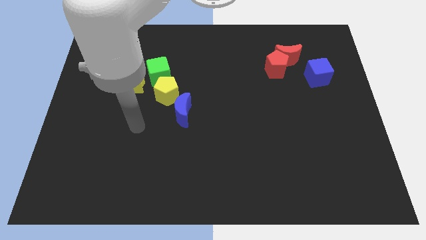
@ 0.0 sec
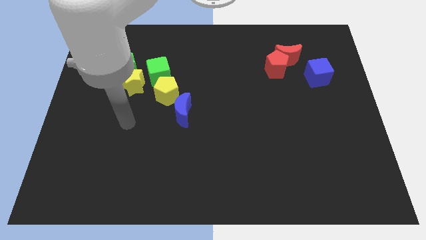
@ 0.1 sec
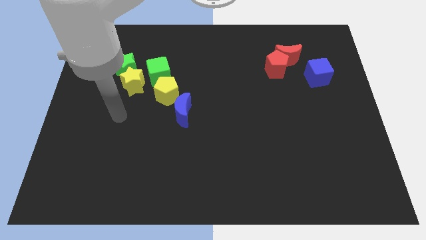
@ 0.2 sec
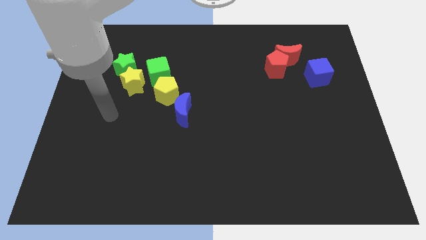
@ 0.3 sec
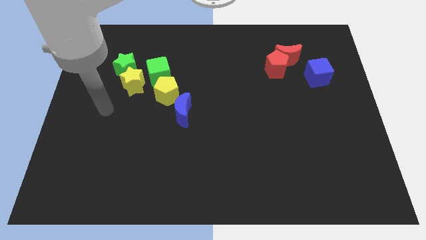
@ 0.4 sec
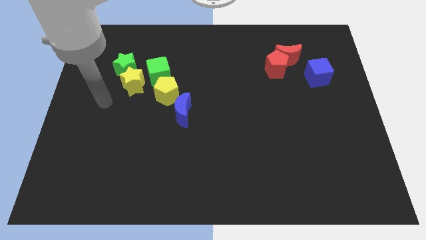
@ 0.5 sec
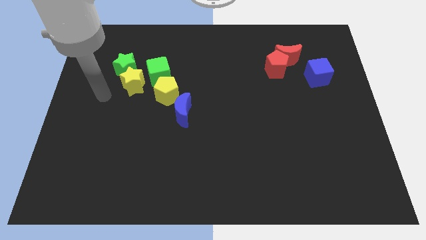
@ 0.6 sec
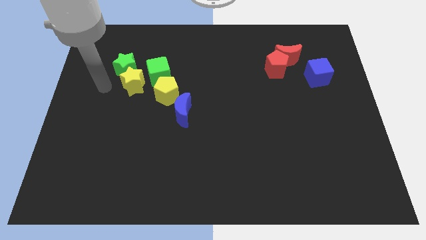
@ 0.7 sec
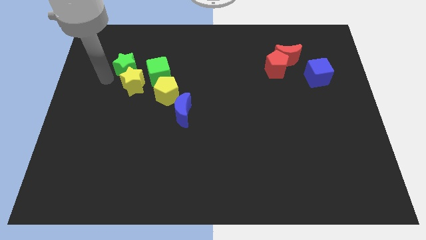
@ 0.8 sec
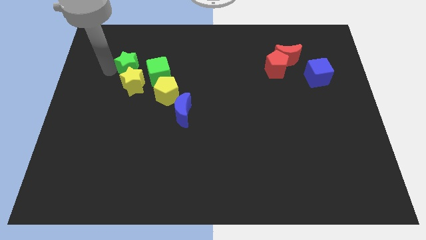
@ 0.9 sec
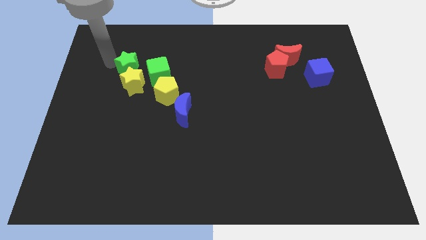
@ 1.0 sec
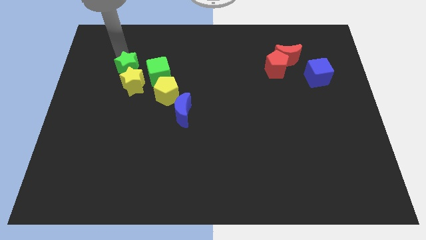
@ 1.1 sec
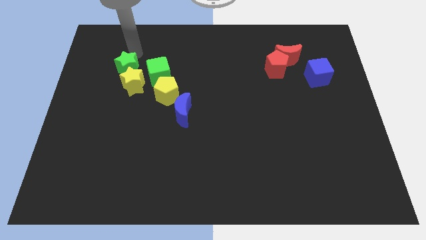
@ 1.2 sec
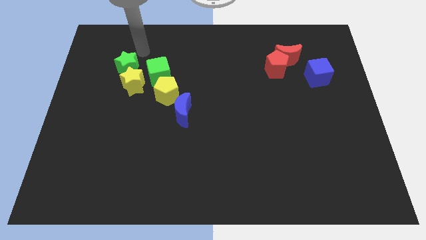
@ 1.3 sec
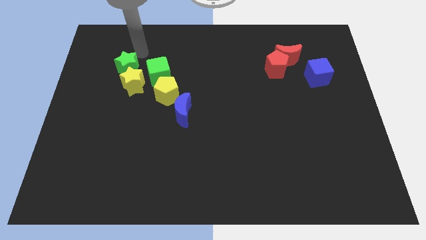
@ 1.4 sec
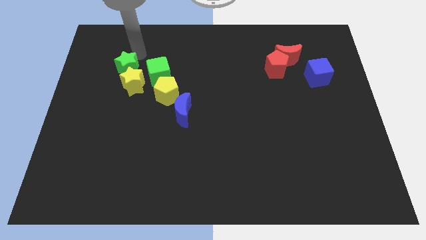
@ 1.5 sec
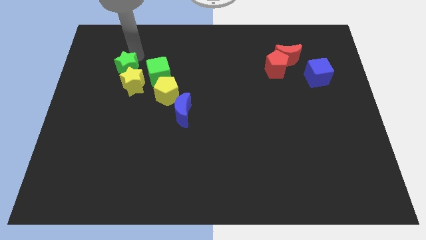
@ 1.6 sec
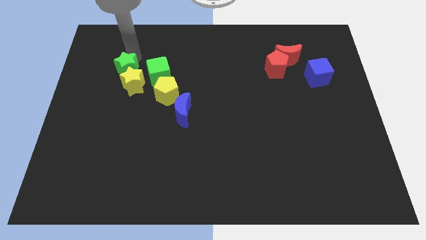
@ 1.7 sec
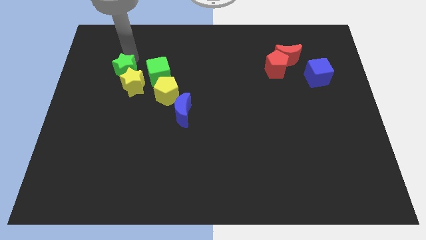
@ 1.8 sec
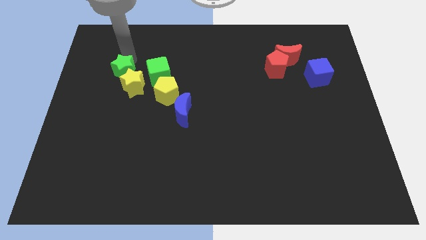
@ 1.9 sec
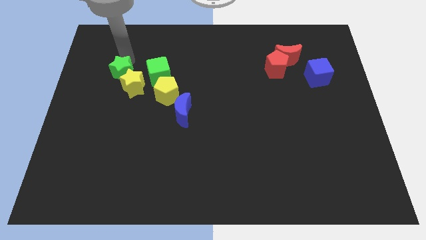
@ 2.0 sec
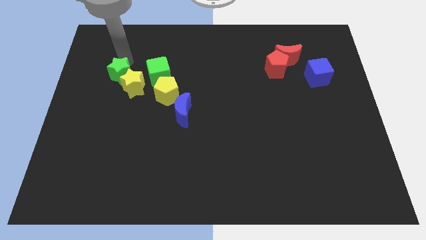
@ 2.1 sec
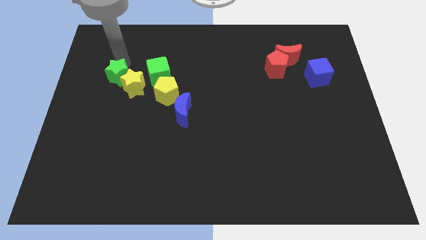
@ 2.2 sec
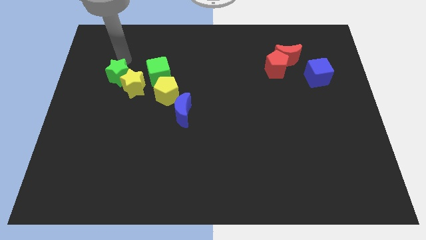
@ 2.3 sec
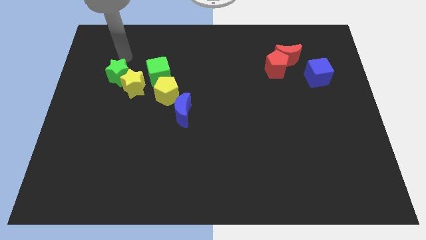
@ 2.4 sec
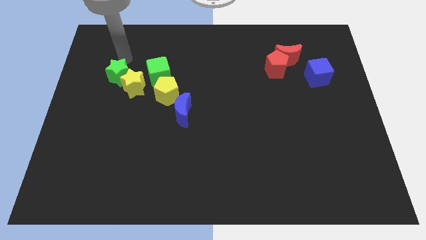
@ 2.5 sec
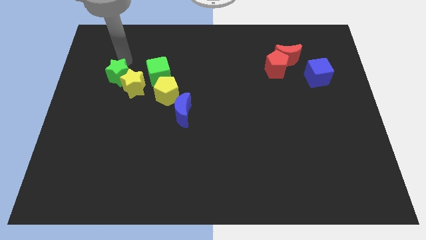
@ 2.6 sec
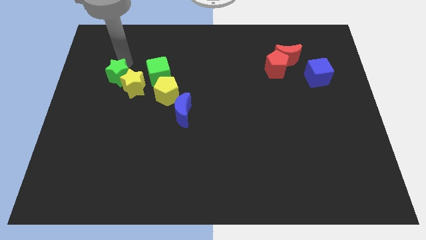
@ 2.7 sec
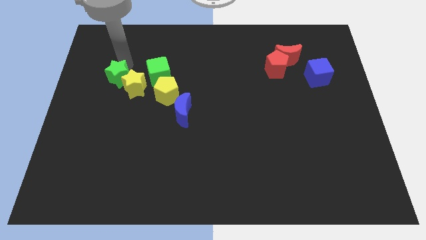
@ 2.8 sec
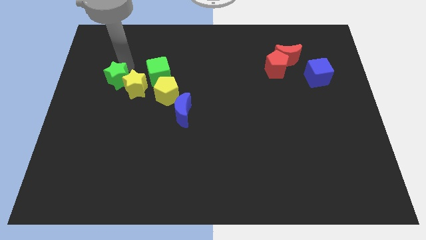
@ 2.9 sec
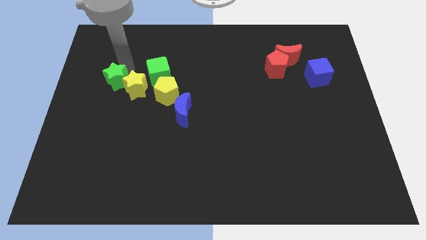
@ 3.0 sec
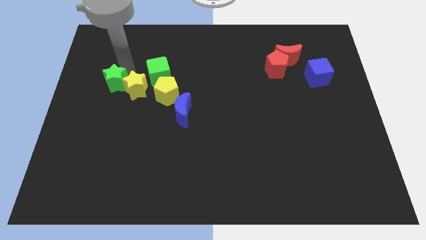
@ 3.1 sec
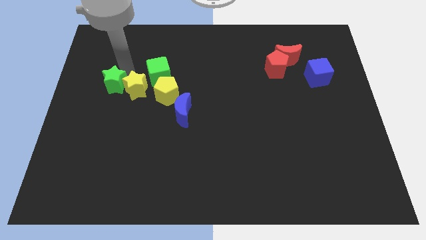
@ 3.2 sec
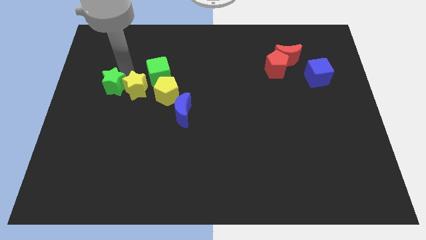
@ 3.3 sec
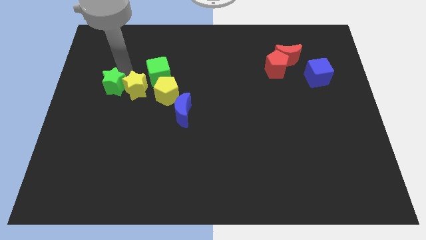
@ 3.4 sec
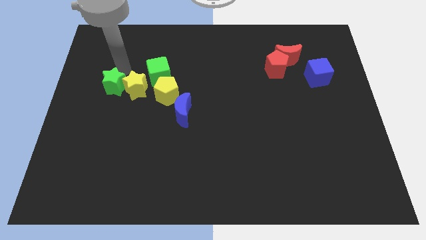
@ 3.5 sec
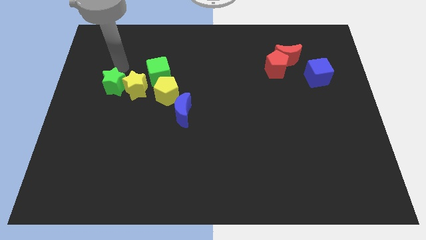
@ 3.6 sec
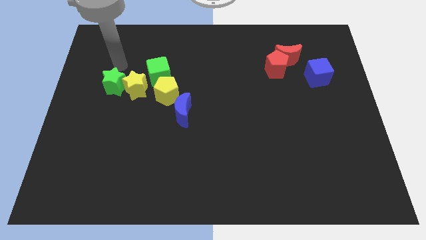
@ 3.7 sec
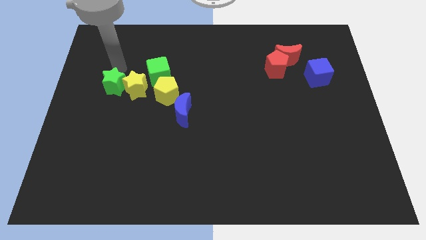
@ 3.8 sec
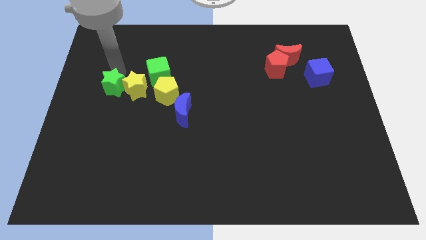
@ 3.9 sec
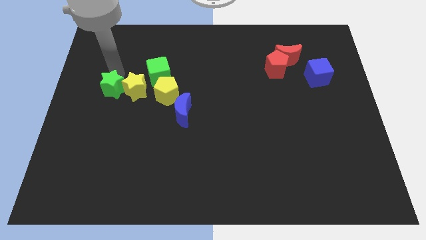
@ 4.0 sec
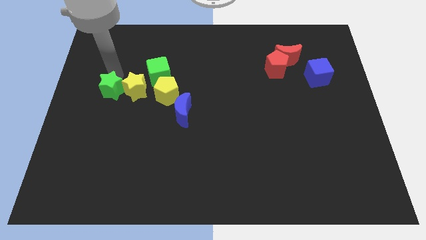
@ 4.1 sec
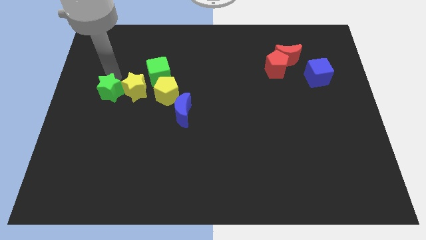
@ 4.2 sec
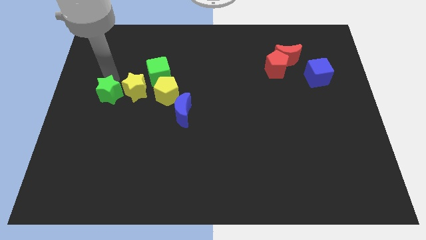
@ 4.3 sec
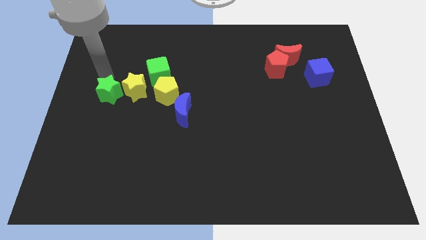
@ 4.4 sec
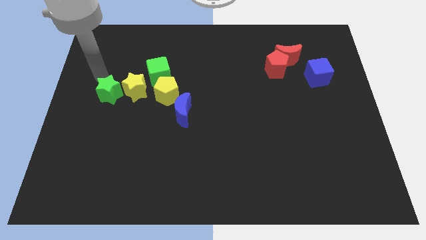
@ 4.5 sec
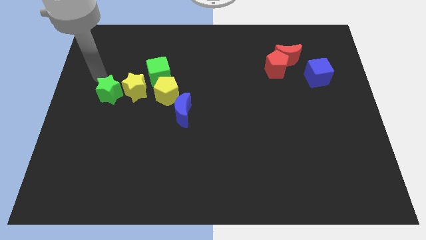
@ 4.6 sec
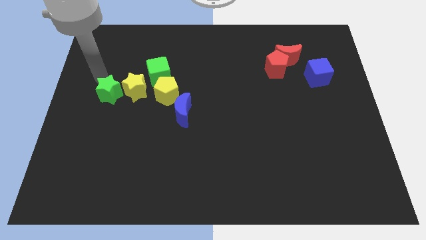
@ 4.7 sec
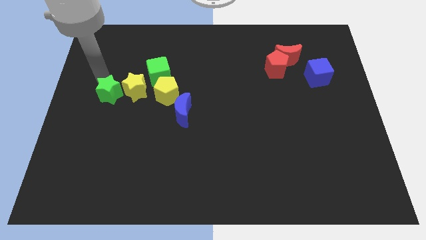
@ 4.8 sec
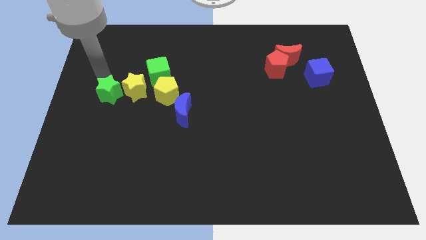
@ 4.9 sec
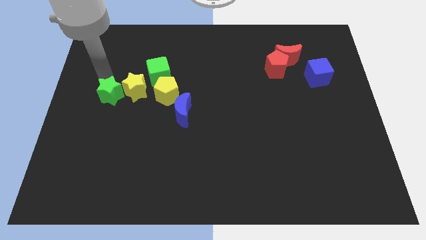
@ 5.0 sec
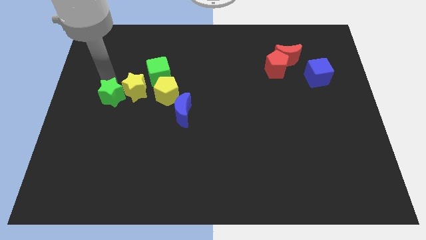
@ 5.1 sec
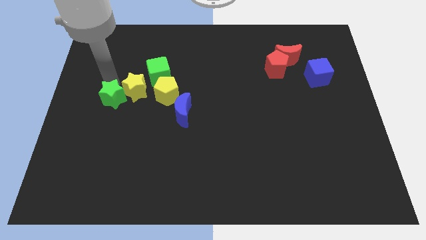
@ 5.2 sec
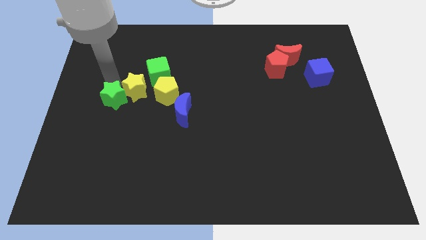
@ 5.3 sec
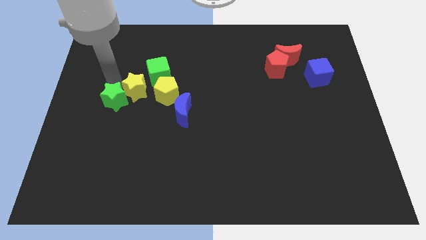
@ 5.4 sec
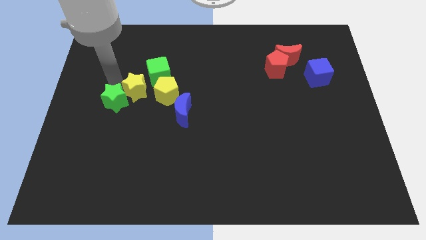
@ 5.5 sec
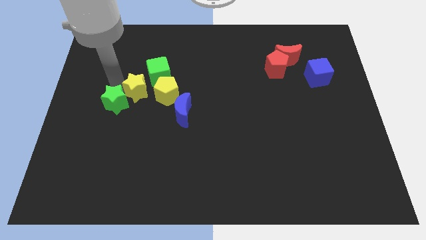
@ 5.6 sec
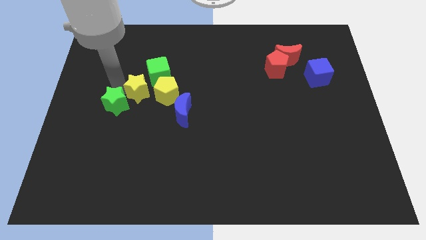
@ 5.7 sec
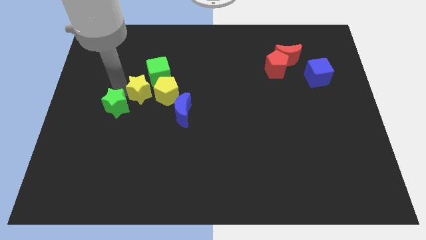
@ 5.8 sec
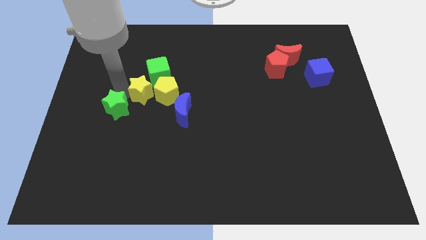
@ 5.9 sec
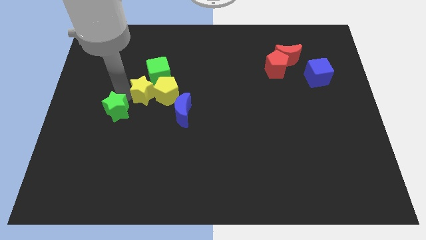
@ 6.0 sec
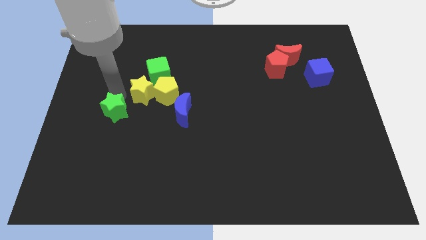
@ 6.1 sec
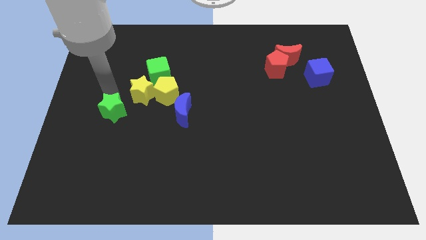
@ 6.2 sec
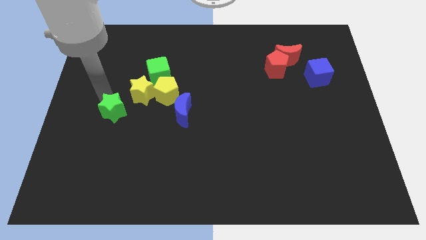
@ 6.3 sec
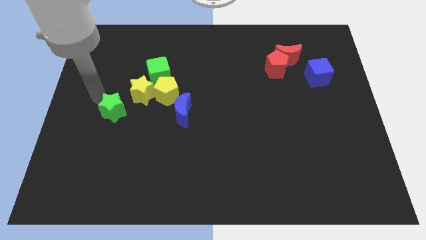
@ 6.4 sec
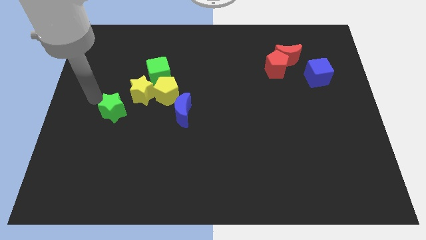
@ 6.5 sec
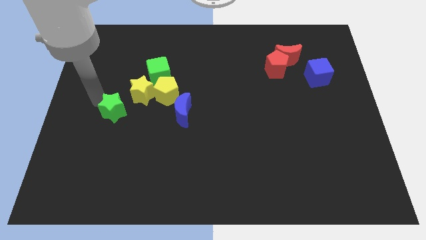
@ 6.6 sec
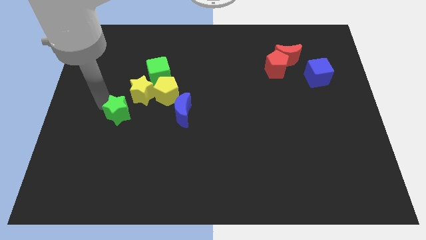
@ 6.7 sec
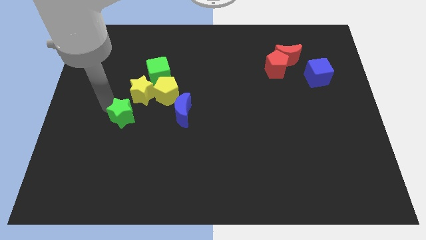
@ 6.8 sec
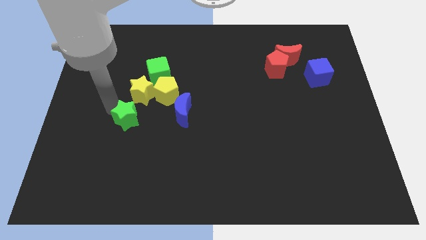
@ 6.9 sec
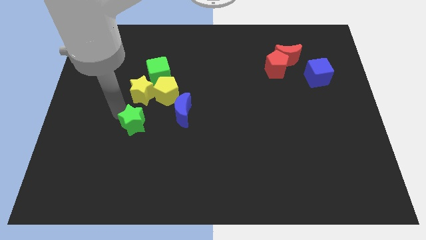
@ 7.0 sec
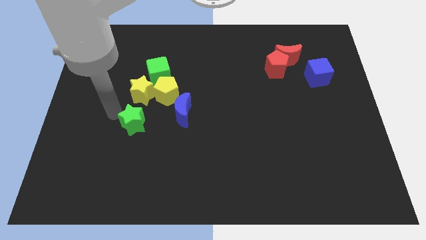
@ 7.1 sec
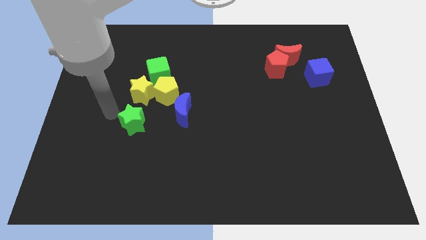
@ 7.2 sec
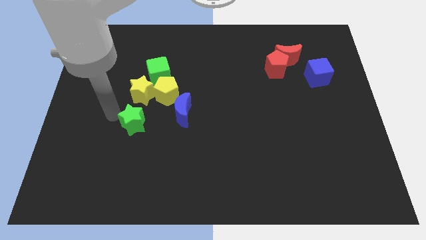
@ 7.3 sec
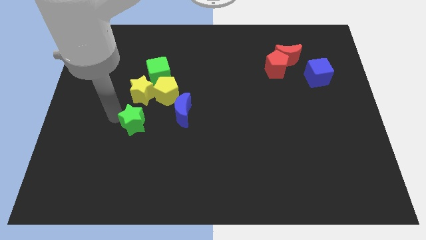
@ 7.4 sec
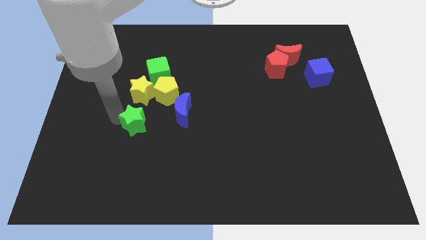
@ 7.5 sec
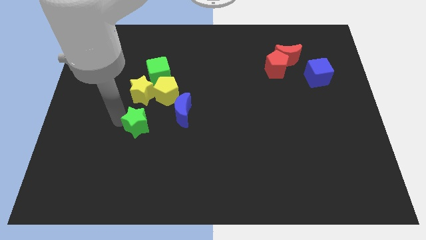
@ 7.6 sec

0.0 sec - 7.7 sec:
put the green star to the bottom left side of the blue moon
